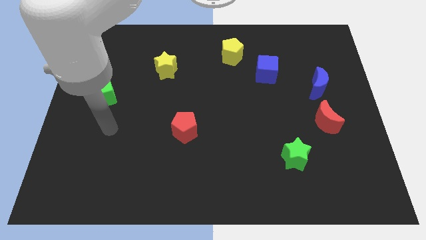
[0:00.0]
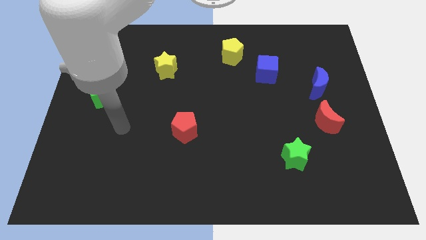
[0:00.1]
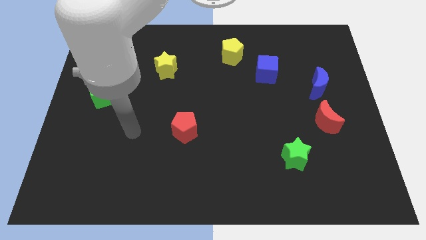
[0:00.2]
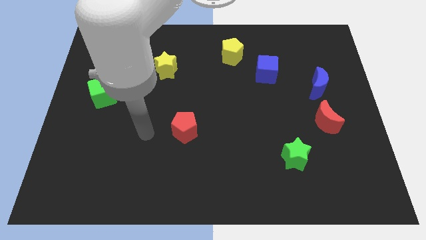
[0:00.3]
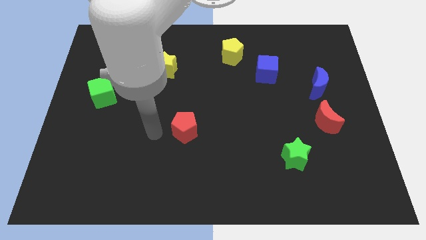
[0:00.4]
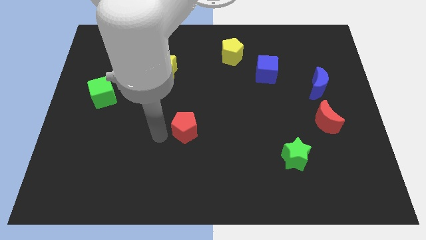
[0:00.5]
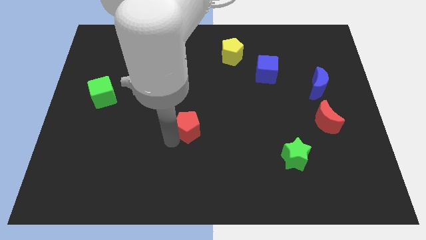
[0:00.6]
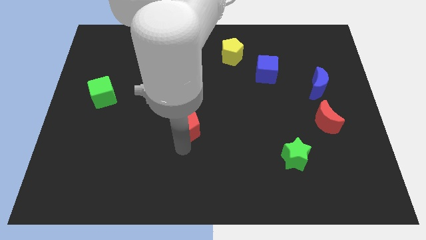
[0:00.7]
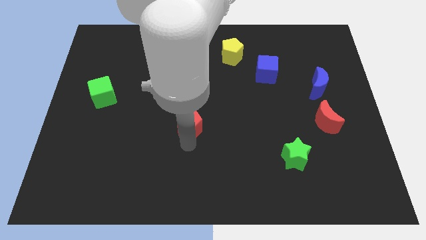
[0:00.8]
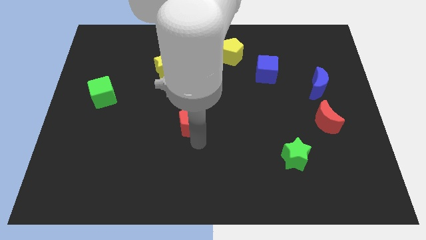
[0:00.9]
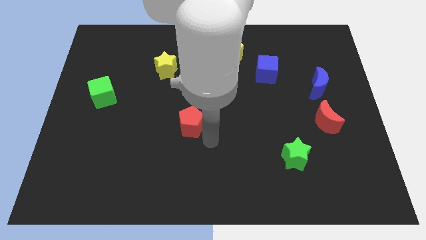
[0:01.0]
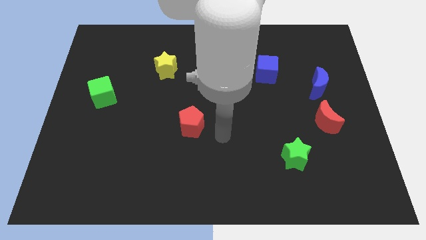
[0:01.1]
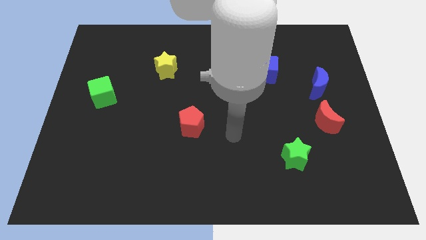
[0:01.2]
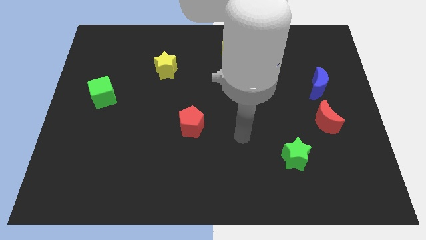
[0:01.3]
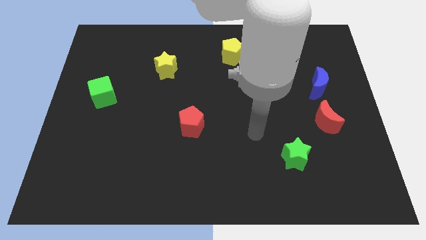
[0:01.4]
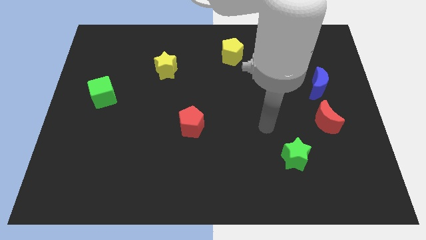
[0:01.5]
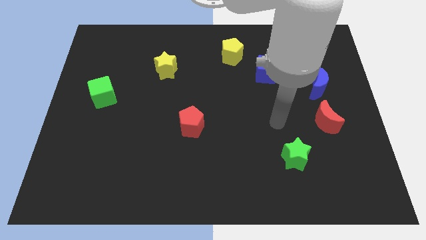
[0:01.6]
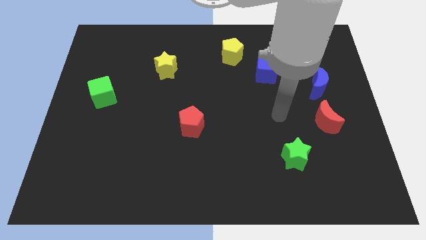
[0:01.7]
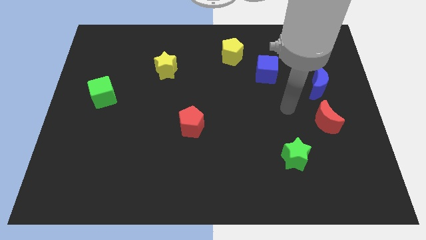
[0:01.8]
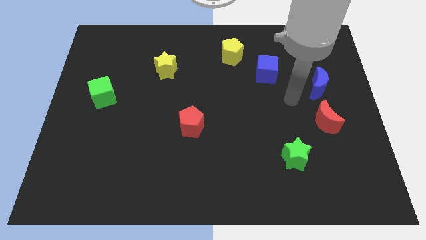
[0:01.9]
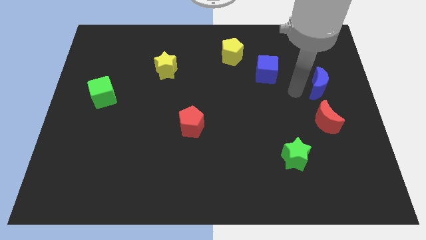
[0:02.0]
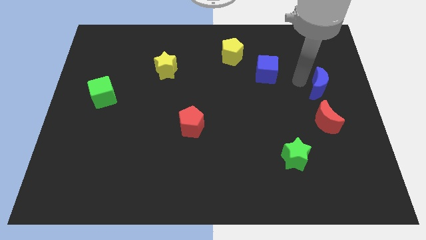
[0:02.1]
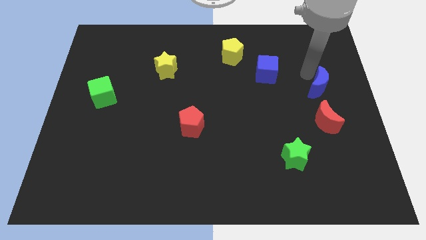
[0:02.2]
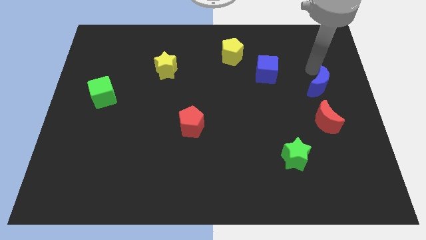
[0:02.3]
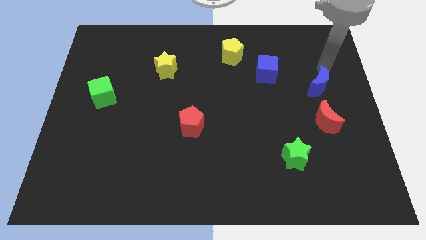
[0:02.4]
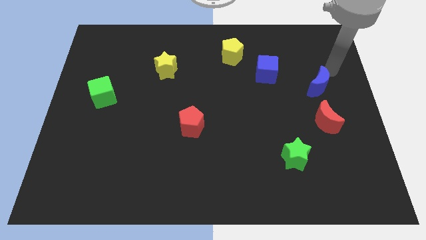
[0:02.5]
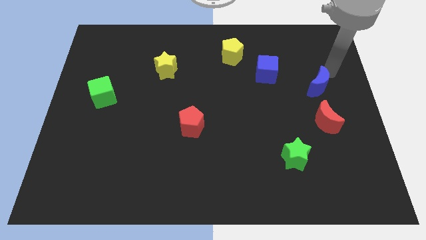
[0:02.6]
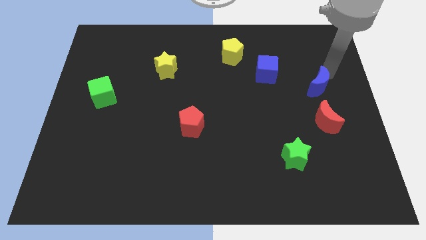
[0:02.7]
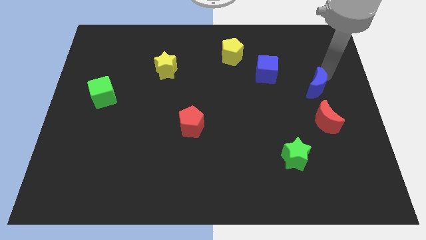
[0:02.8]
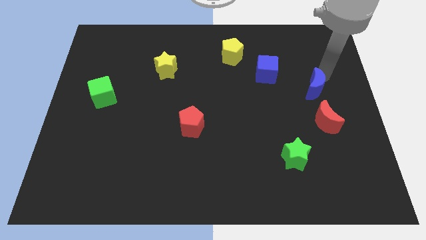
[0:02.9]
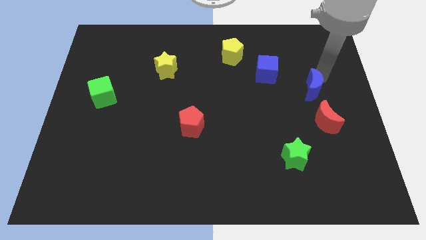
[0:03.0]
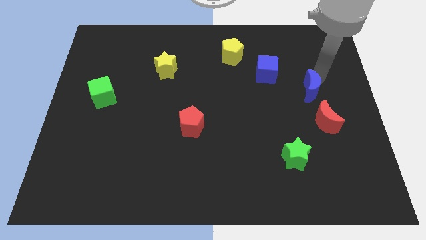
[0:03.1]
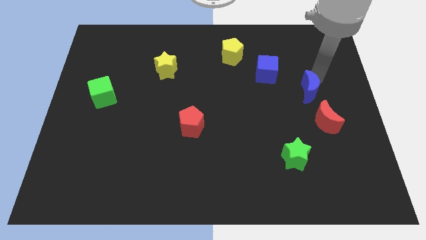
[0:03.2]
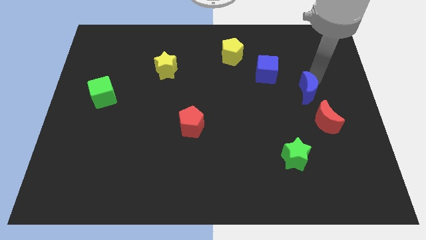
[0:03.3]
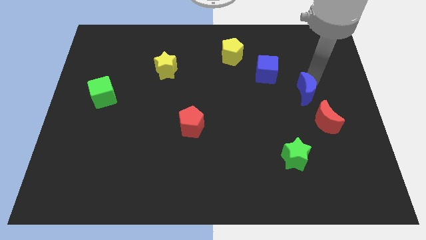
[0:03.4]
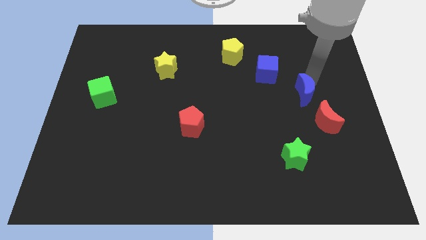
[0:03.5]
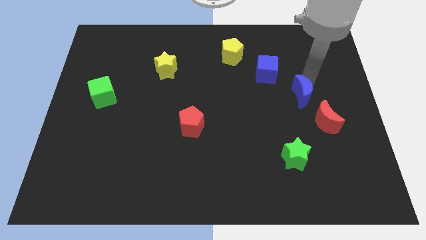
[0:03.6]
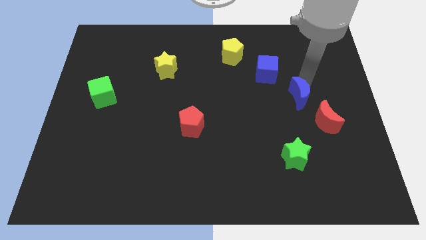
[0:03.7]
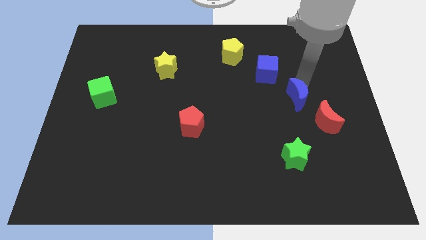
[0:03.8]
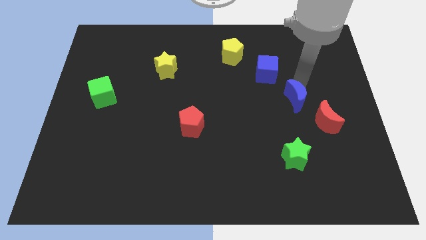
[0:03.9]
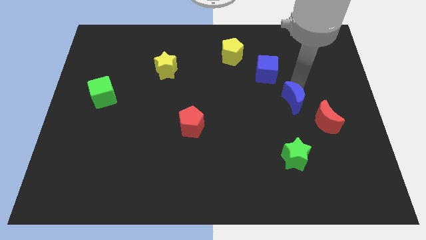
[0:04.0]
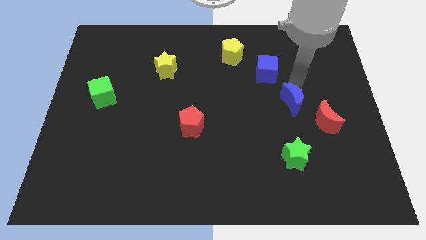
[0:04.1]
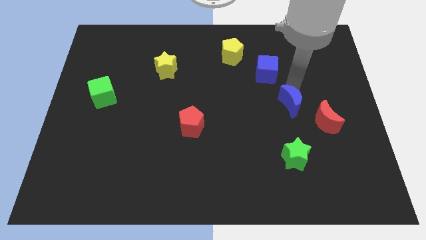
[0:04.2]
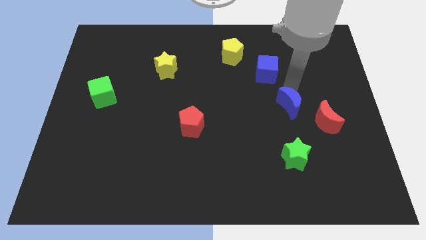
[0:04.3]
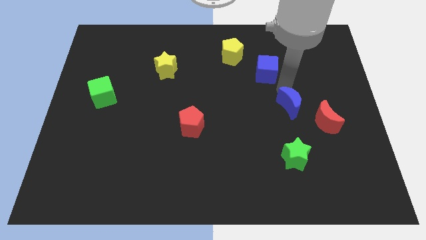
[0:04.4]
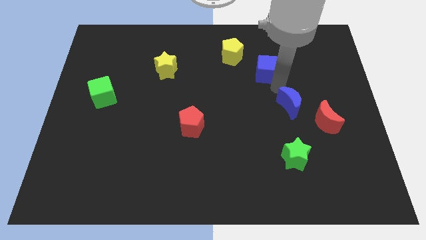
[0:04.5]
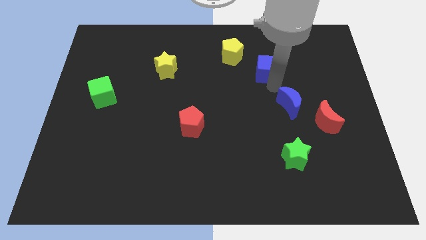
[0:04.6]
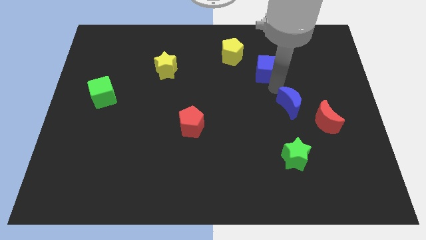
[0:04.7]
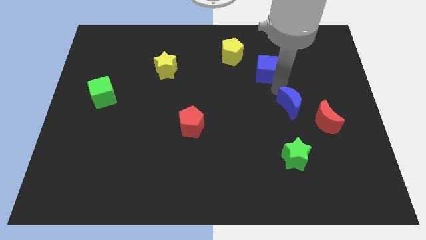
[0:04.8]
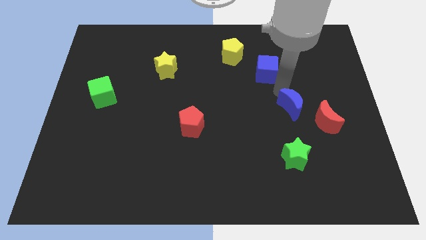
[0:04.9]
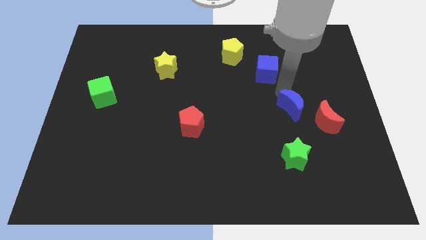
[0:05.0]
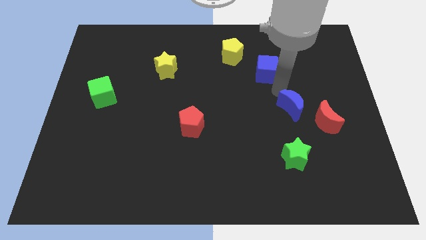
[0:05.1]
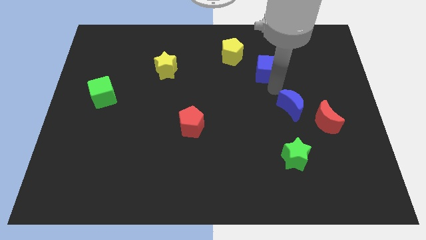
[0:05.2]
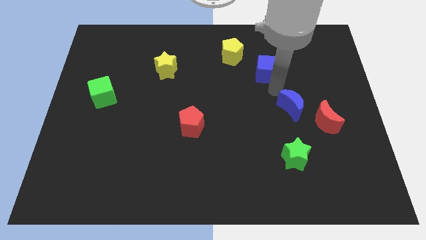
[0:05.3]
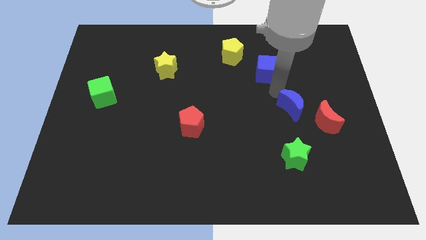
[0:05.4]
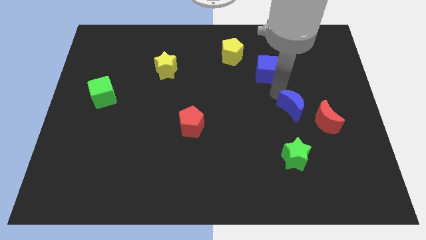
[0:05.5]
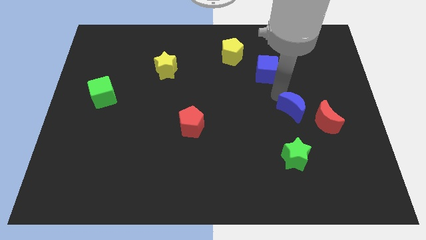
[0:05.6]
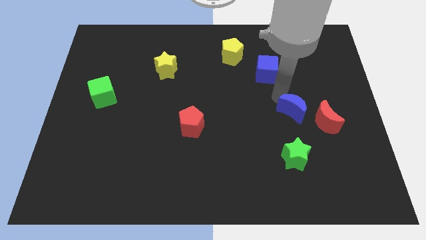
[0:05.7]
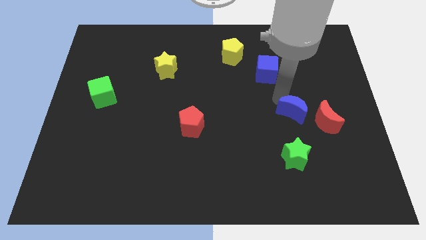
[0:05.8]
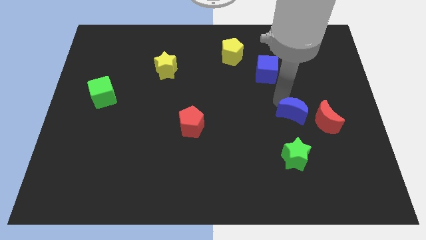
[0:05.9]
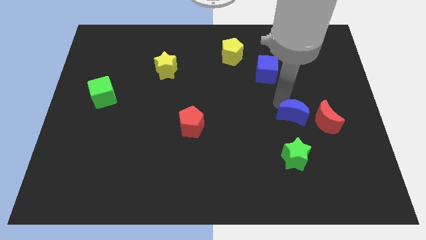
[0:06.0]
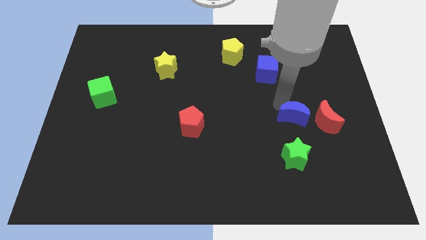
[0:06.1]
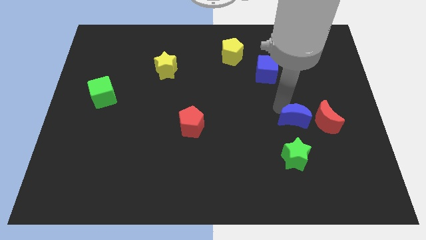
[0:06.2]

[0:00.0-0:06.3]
push the blue moon a bit down

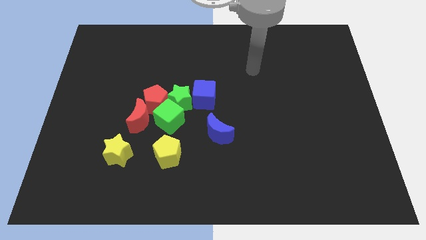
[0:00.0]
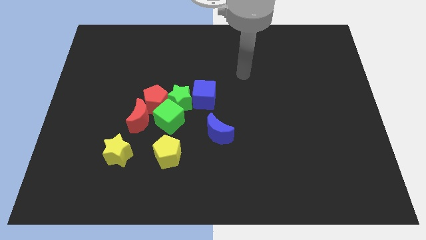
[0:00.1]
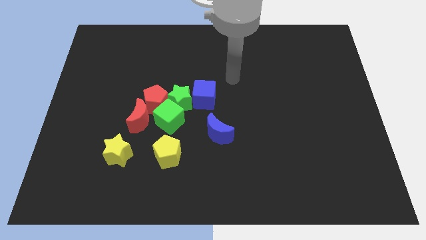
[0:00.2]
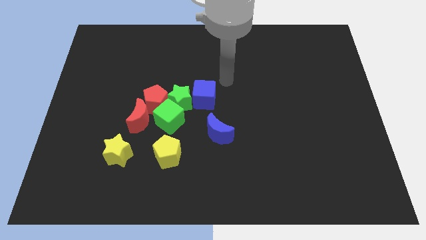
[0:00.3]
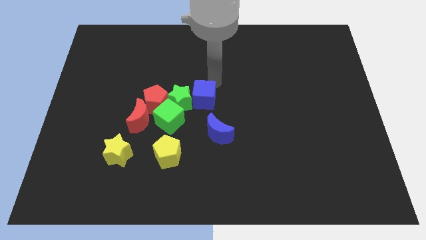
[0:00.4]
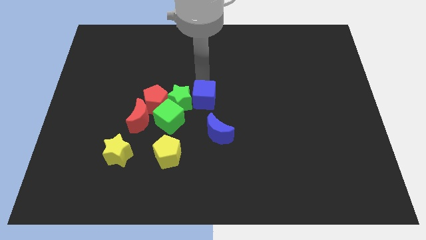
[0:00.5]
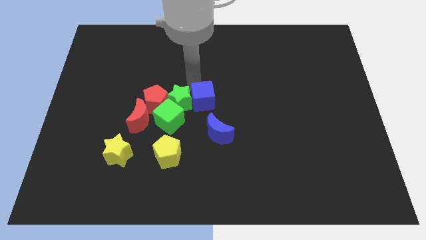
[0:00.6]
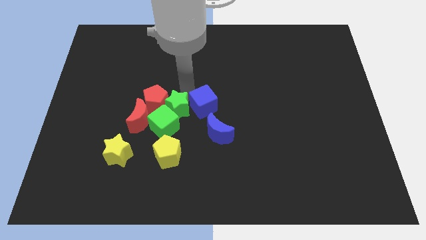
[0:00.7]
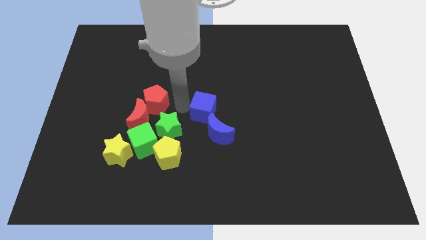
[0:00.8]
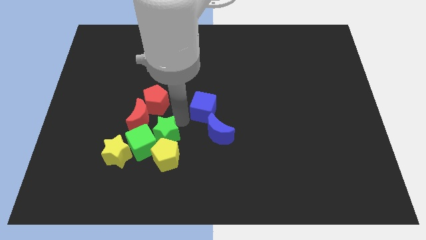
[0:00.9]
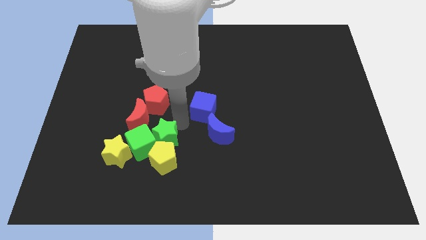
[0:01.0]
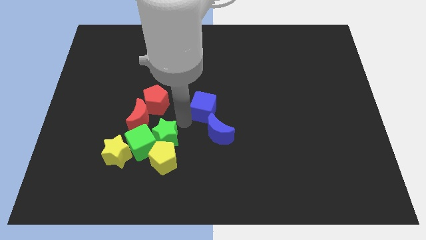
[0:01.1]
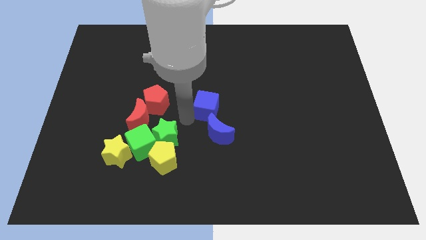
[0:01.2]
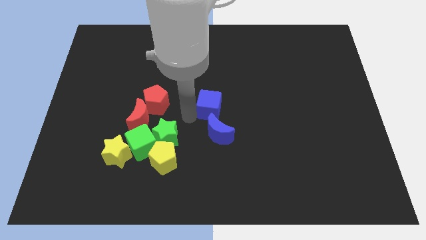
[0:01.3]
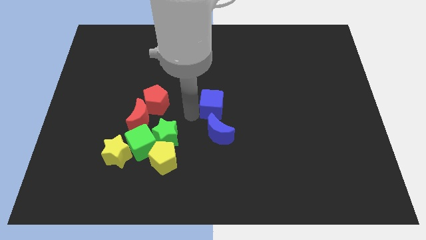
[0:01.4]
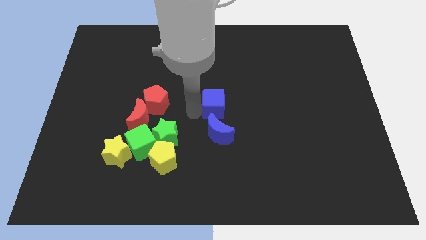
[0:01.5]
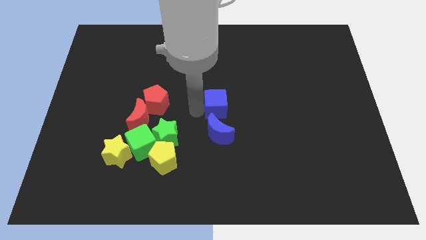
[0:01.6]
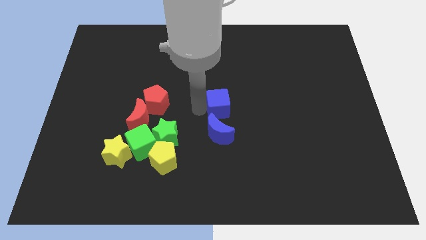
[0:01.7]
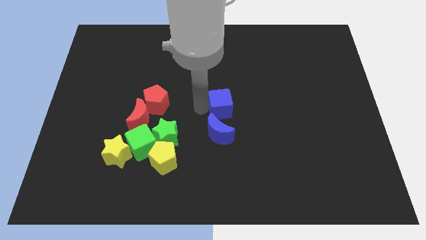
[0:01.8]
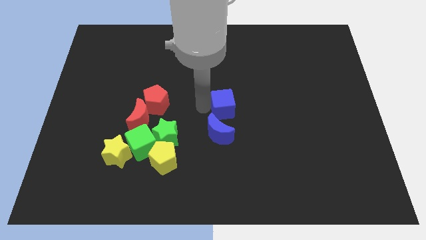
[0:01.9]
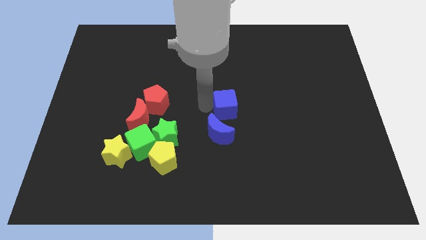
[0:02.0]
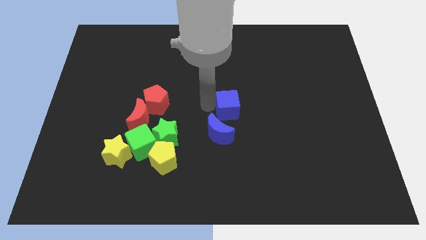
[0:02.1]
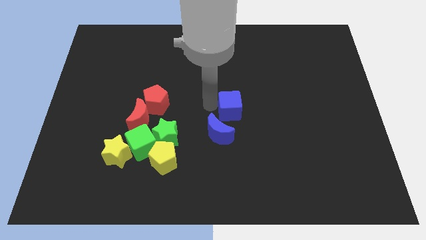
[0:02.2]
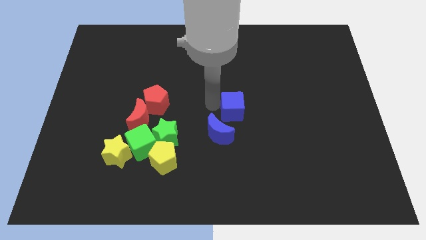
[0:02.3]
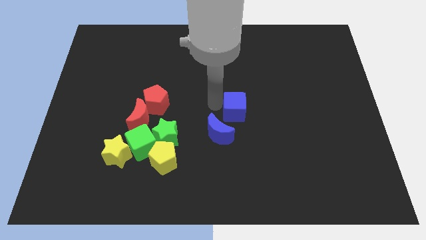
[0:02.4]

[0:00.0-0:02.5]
slide the blue cube right a little
